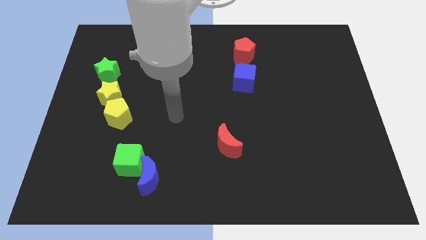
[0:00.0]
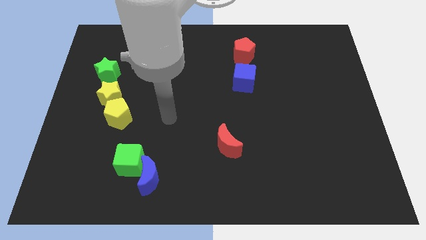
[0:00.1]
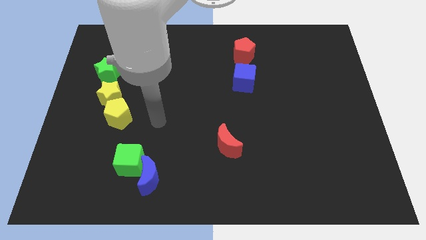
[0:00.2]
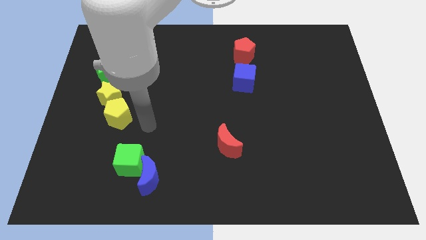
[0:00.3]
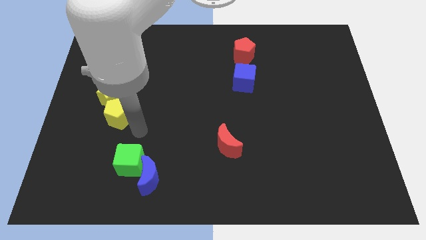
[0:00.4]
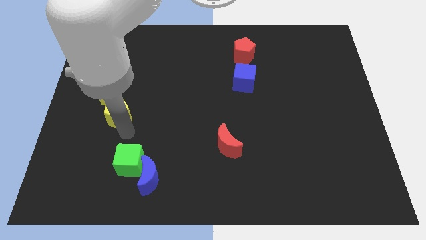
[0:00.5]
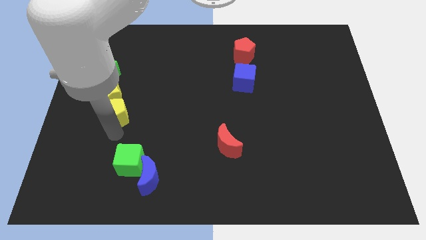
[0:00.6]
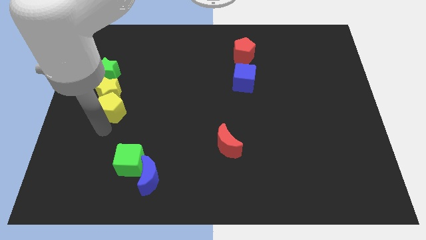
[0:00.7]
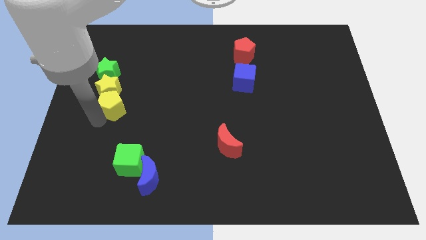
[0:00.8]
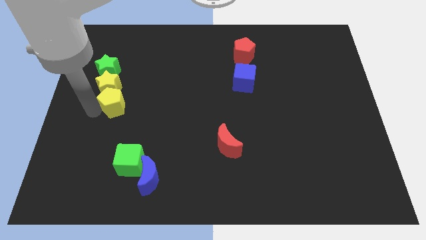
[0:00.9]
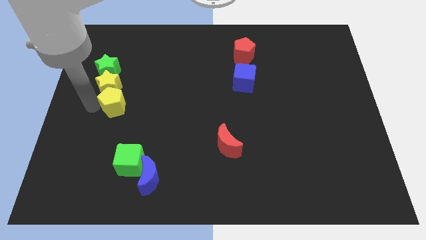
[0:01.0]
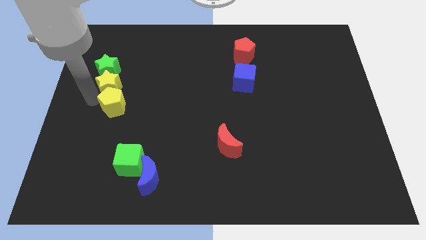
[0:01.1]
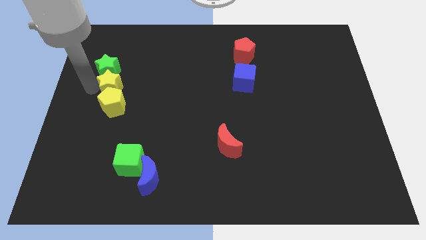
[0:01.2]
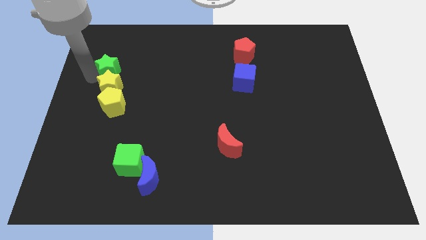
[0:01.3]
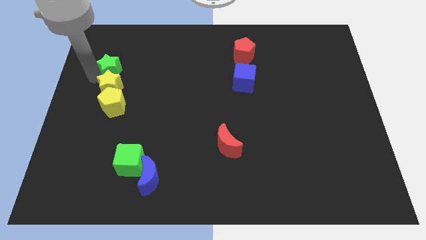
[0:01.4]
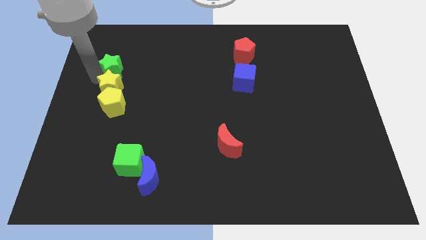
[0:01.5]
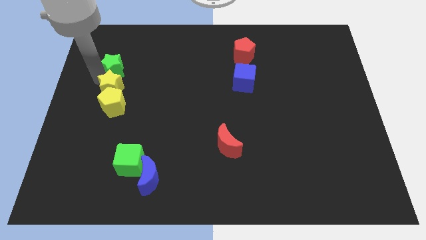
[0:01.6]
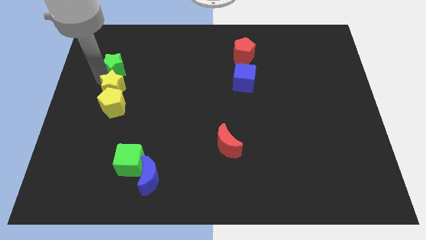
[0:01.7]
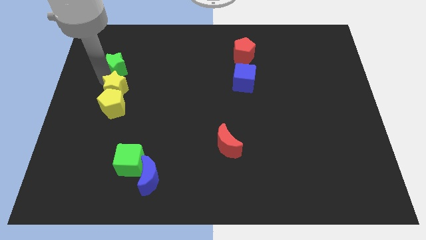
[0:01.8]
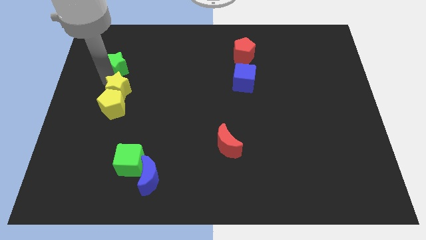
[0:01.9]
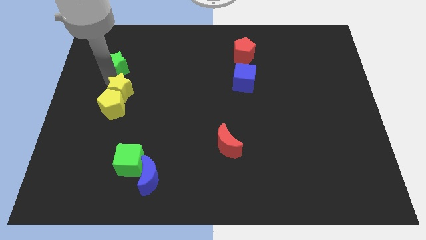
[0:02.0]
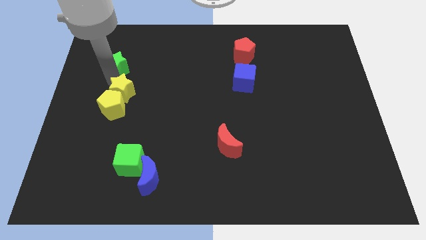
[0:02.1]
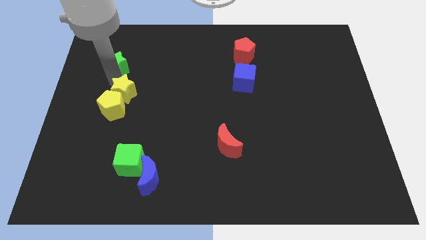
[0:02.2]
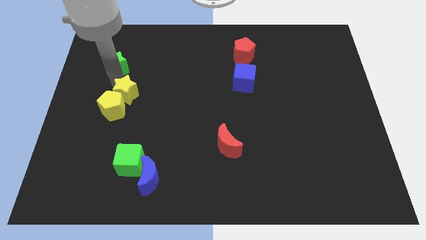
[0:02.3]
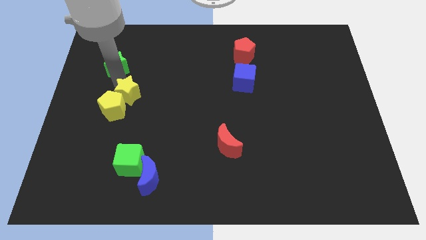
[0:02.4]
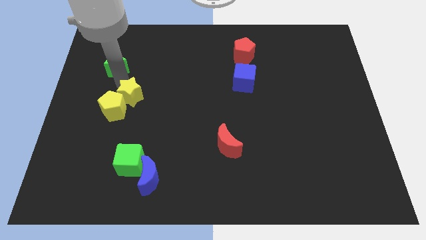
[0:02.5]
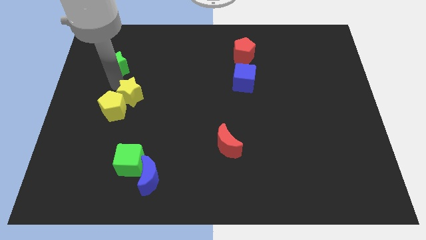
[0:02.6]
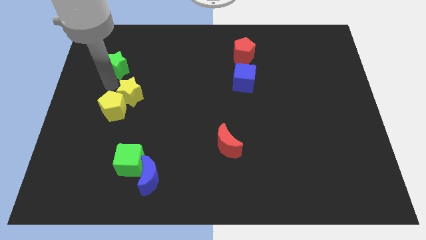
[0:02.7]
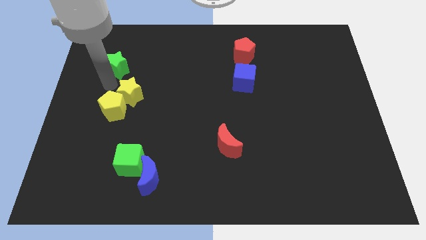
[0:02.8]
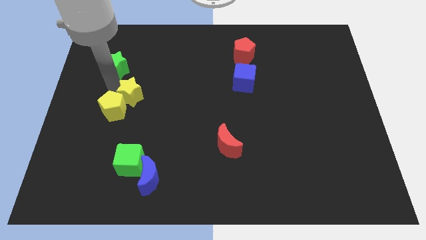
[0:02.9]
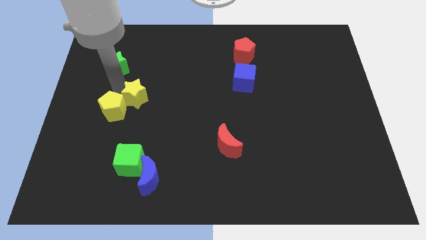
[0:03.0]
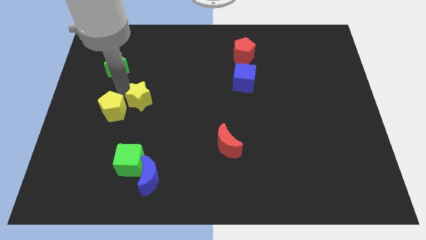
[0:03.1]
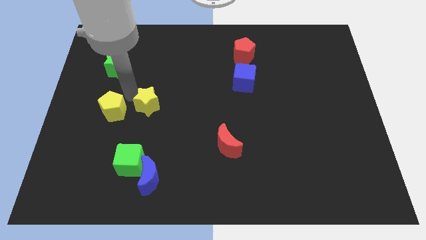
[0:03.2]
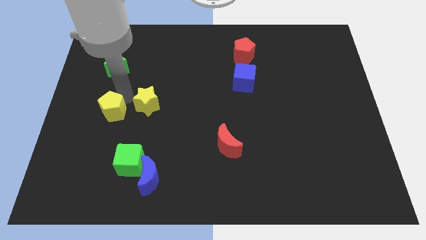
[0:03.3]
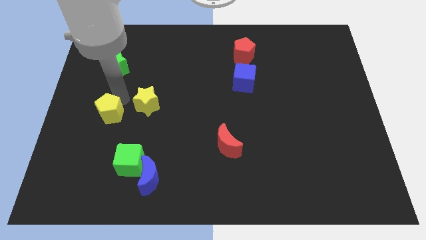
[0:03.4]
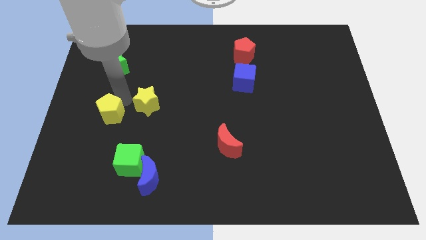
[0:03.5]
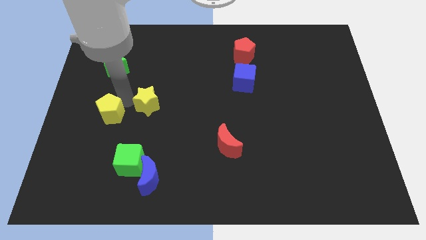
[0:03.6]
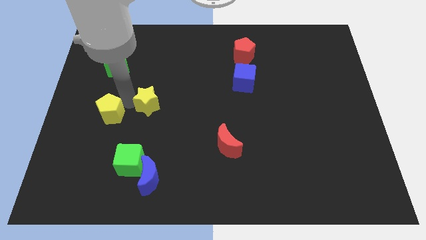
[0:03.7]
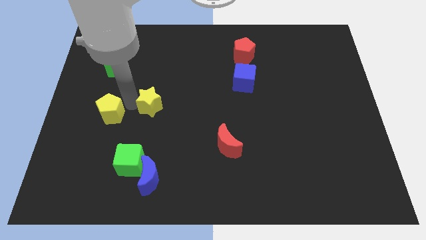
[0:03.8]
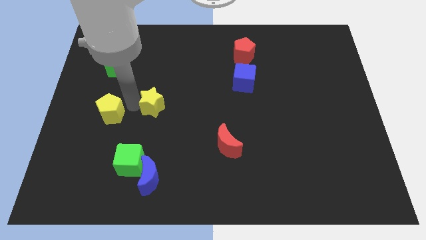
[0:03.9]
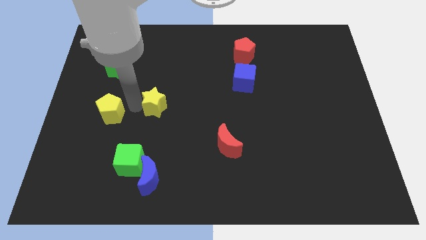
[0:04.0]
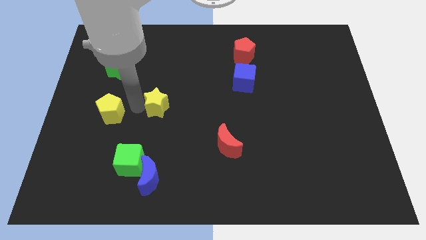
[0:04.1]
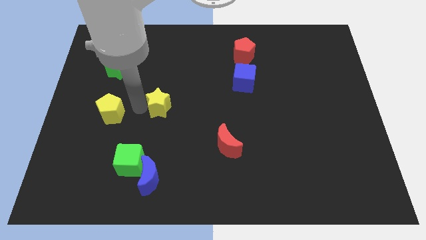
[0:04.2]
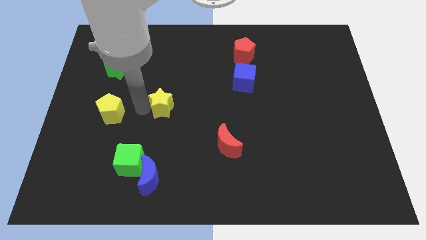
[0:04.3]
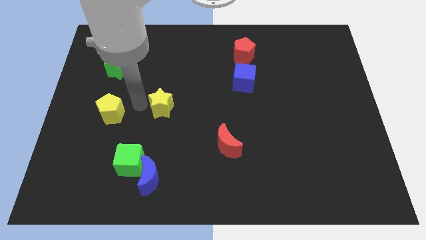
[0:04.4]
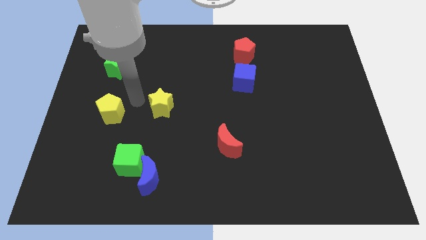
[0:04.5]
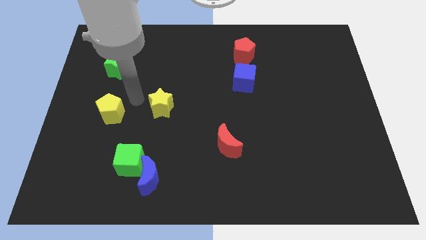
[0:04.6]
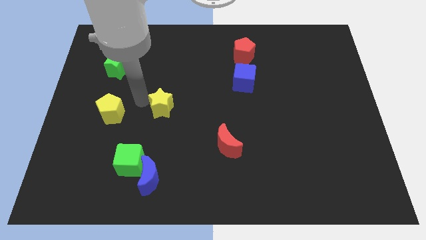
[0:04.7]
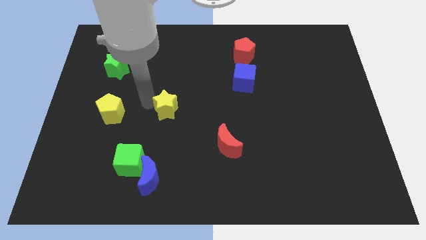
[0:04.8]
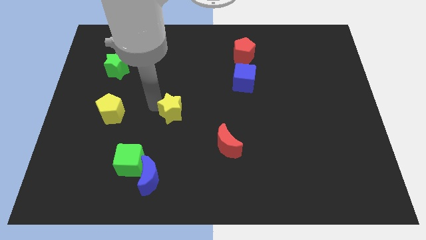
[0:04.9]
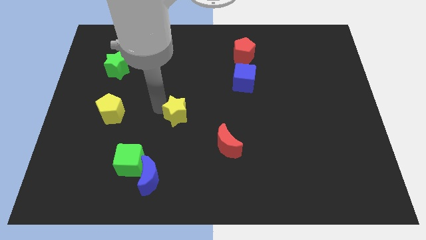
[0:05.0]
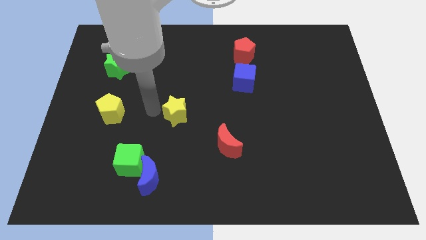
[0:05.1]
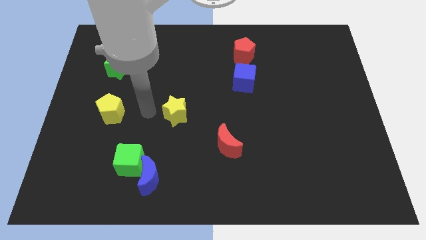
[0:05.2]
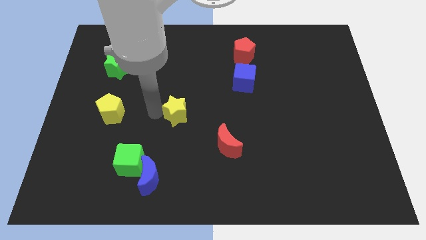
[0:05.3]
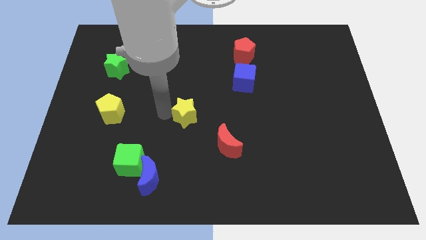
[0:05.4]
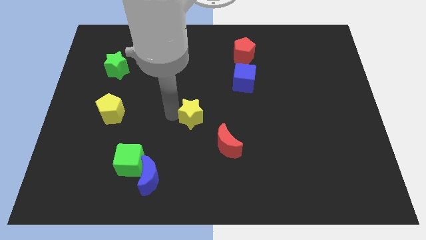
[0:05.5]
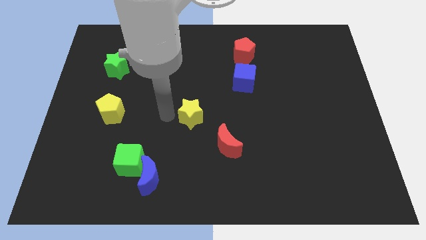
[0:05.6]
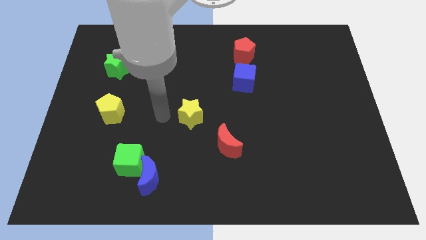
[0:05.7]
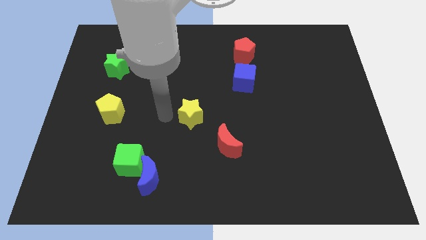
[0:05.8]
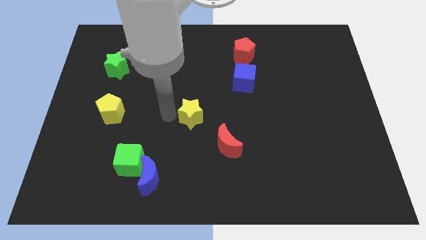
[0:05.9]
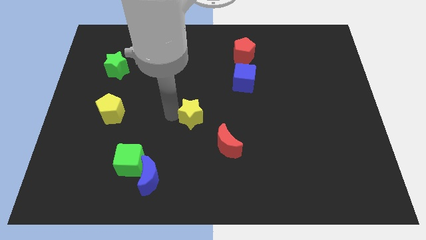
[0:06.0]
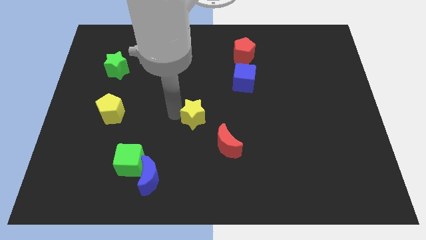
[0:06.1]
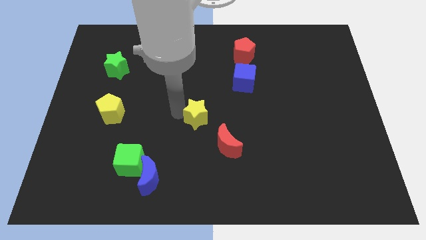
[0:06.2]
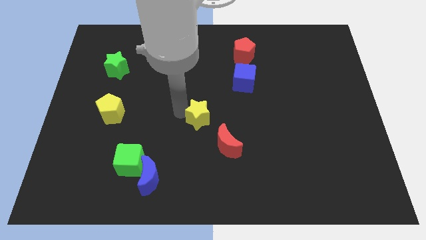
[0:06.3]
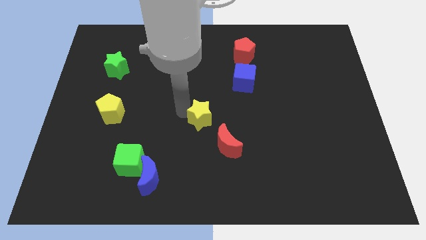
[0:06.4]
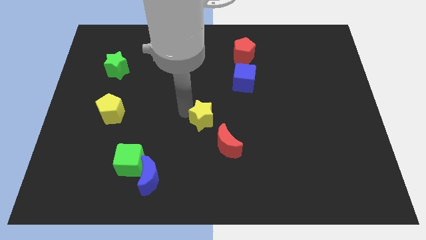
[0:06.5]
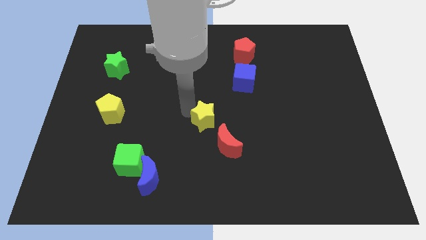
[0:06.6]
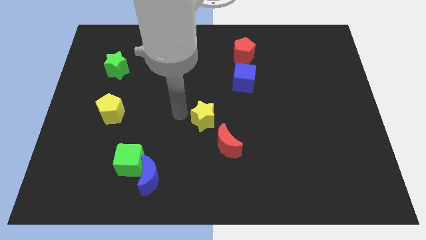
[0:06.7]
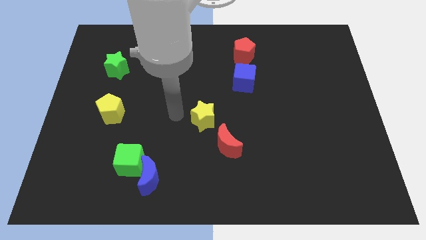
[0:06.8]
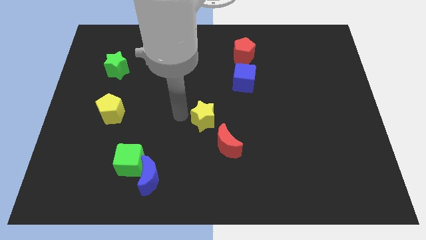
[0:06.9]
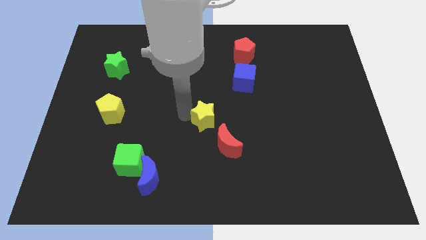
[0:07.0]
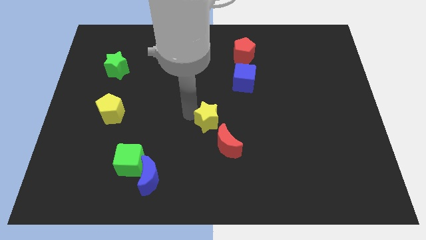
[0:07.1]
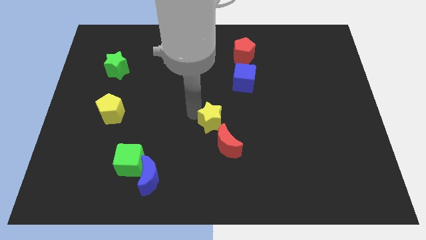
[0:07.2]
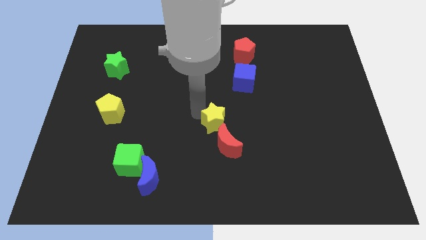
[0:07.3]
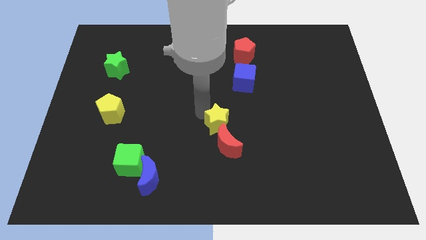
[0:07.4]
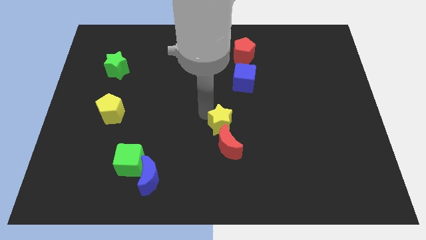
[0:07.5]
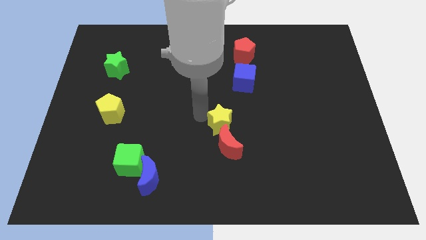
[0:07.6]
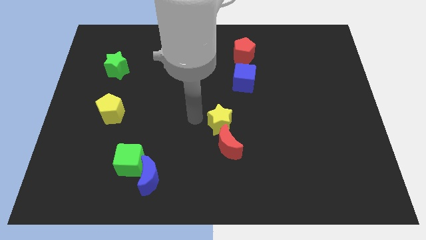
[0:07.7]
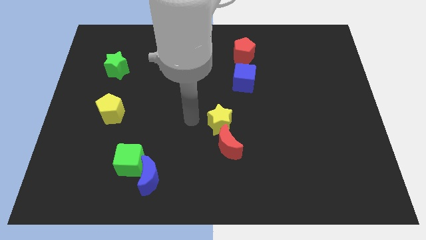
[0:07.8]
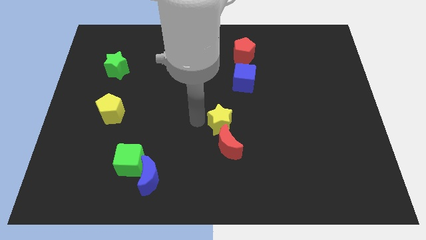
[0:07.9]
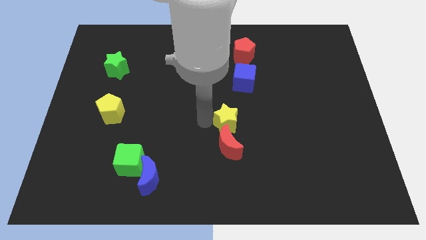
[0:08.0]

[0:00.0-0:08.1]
put the yellow star to the top right side of the red moon
